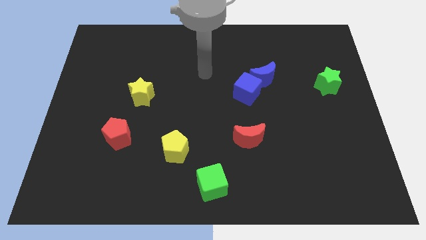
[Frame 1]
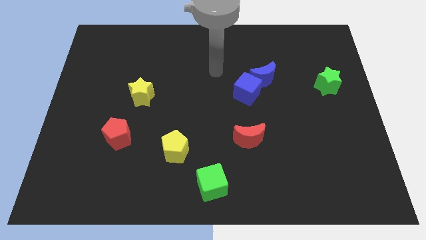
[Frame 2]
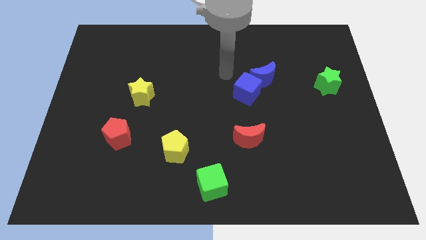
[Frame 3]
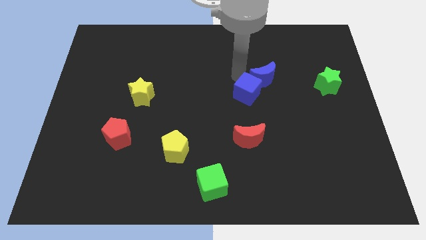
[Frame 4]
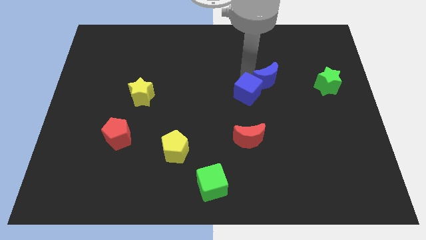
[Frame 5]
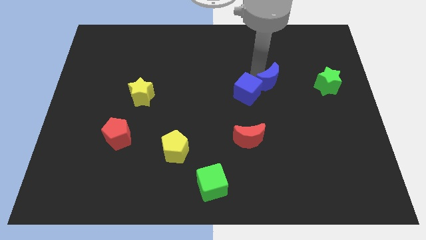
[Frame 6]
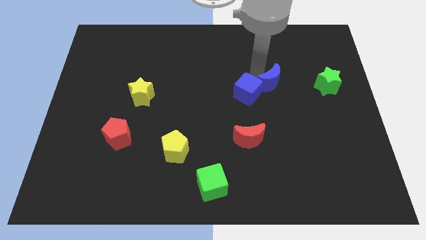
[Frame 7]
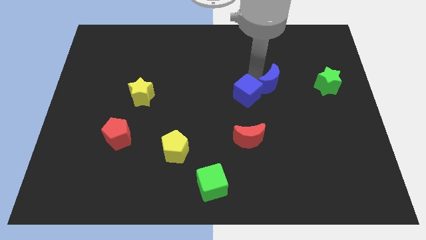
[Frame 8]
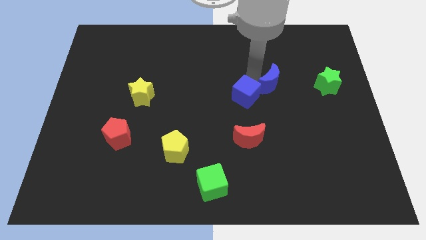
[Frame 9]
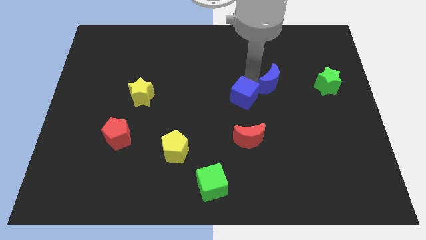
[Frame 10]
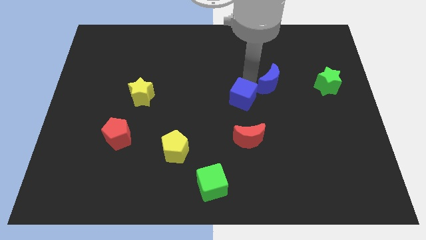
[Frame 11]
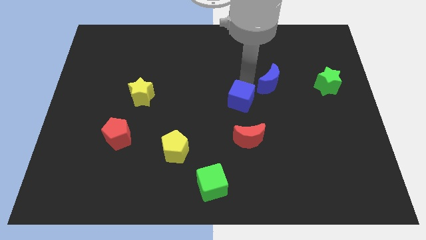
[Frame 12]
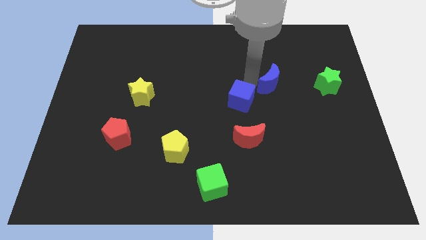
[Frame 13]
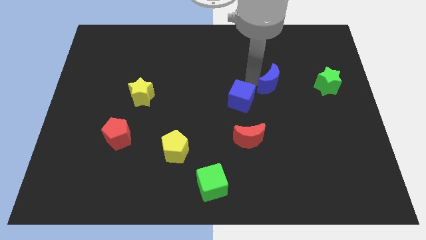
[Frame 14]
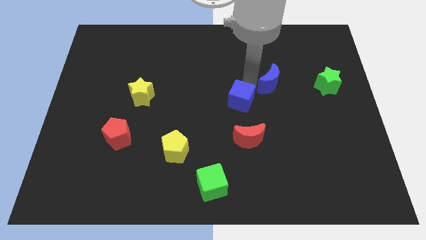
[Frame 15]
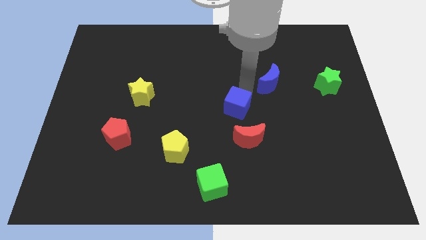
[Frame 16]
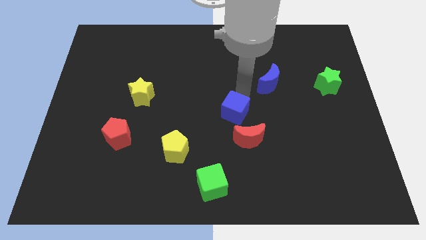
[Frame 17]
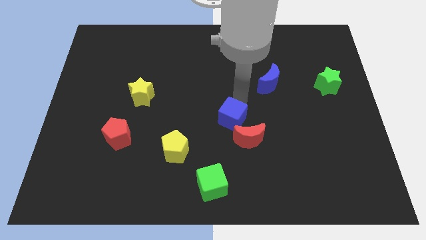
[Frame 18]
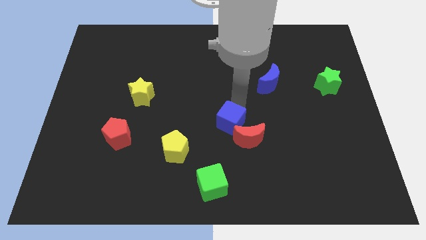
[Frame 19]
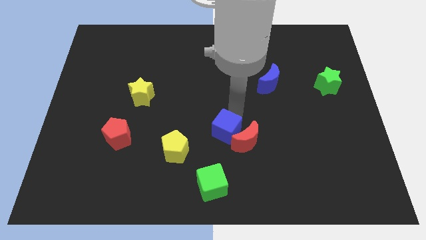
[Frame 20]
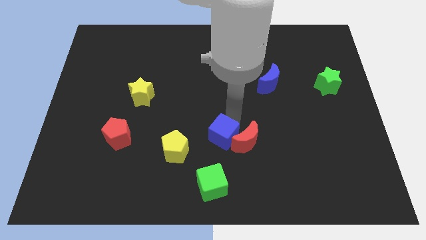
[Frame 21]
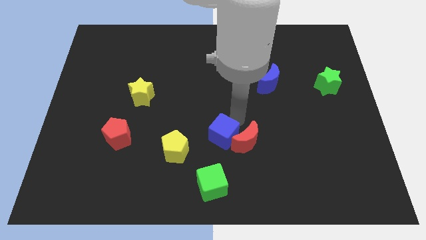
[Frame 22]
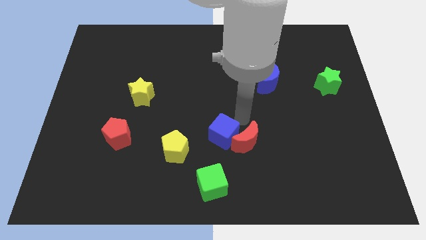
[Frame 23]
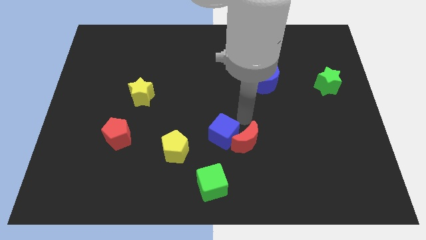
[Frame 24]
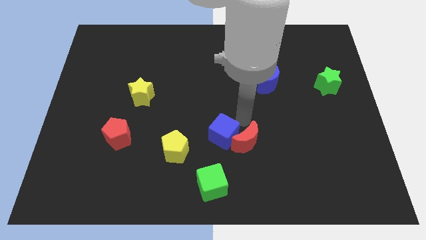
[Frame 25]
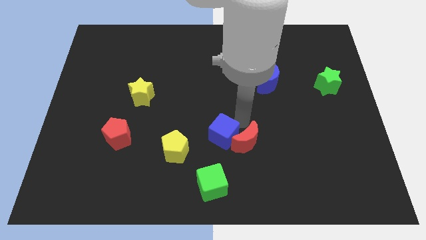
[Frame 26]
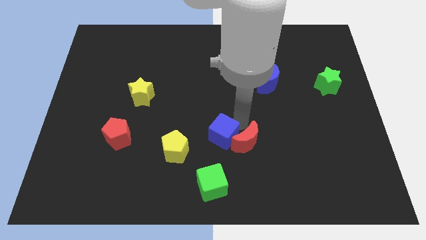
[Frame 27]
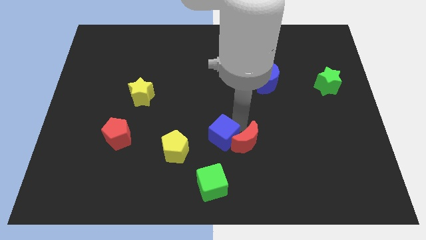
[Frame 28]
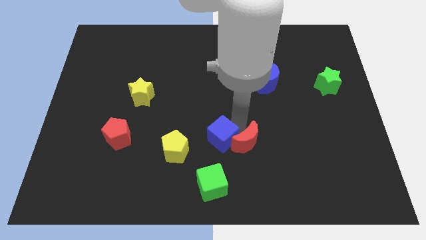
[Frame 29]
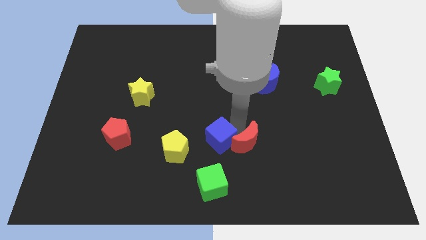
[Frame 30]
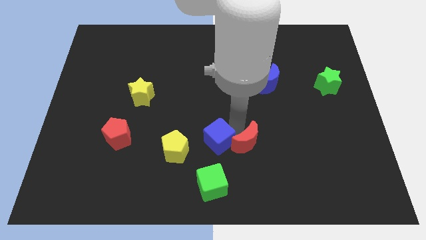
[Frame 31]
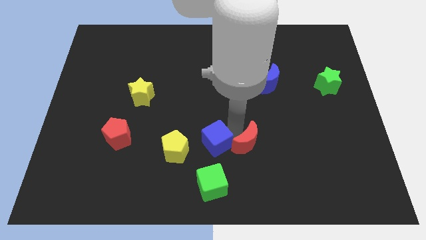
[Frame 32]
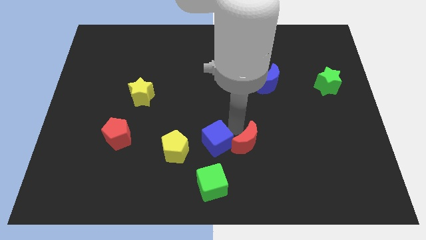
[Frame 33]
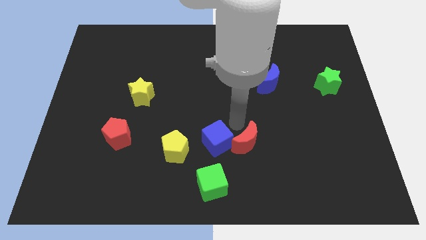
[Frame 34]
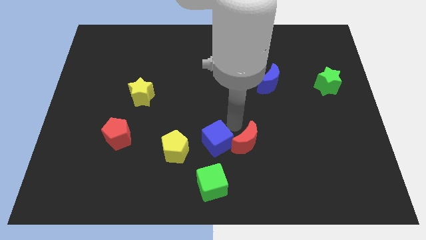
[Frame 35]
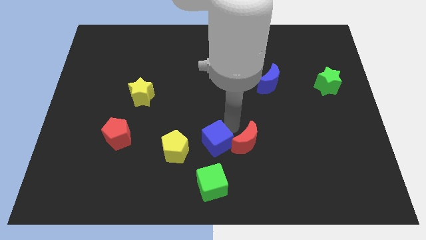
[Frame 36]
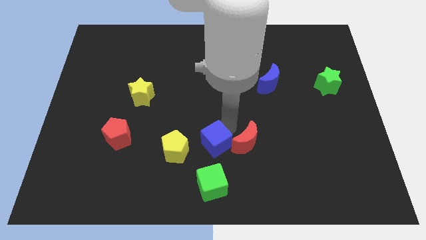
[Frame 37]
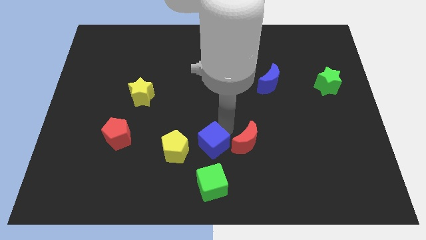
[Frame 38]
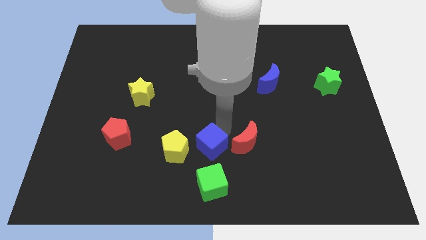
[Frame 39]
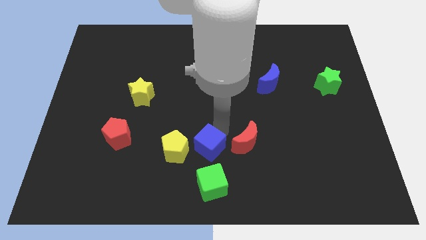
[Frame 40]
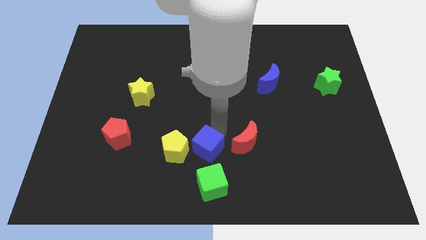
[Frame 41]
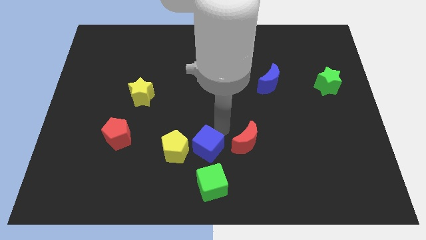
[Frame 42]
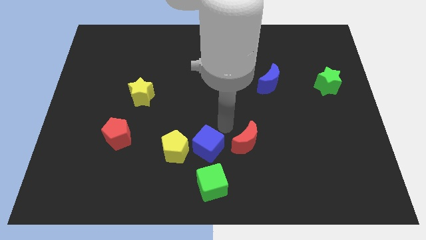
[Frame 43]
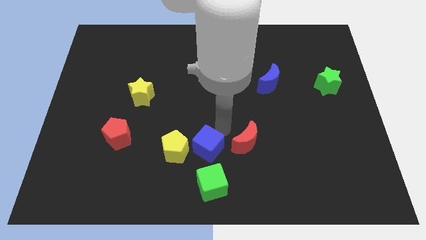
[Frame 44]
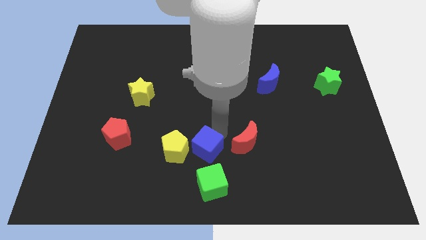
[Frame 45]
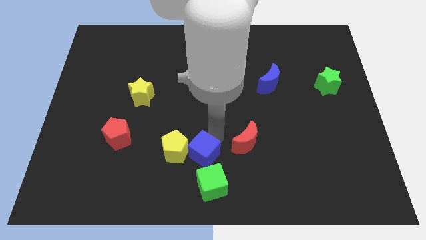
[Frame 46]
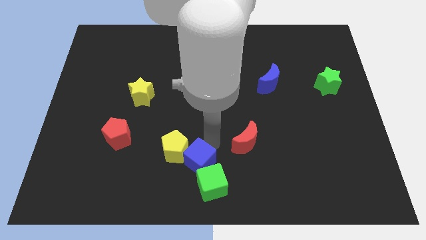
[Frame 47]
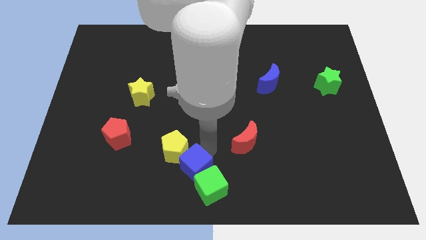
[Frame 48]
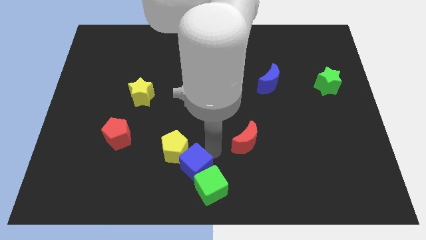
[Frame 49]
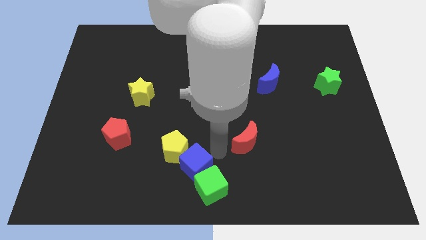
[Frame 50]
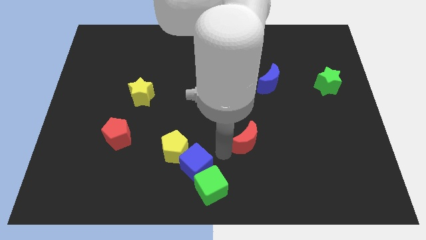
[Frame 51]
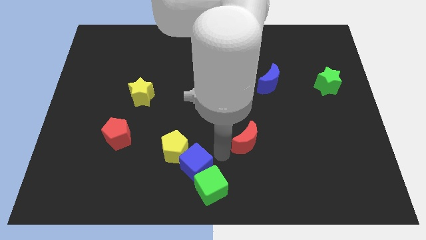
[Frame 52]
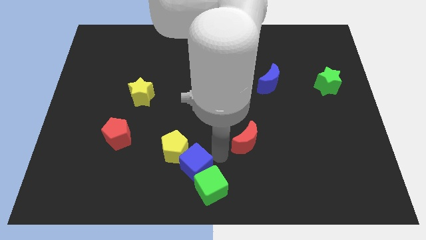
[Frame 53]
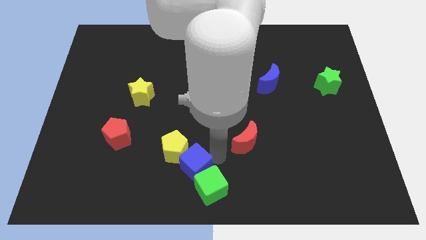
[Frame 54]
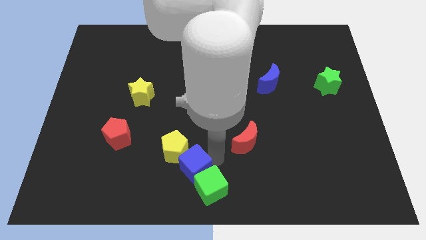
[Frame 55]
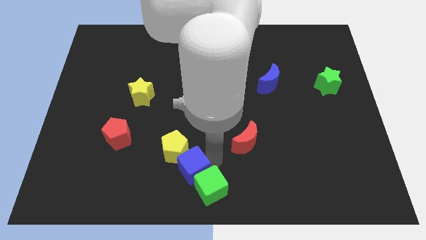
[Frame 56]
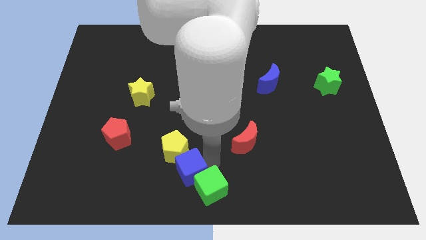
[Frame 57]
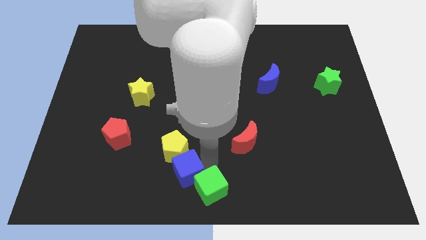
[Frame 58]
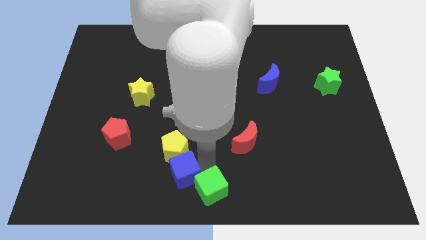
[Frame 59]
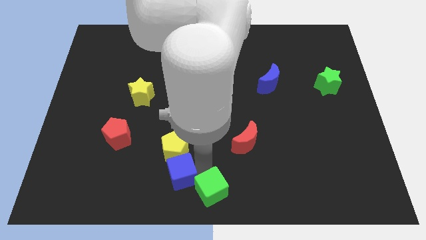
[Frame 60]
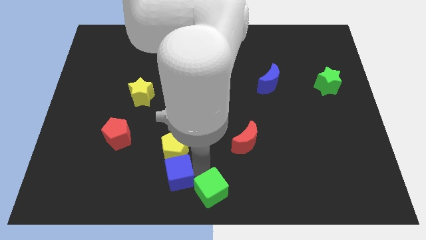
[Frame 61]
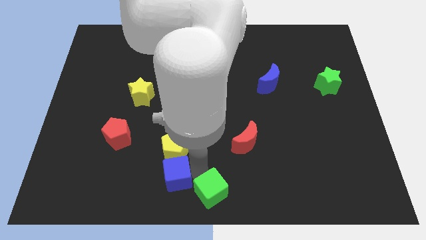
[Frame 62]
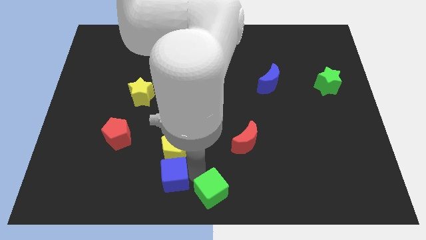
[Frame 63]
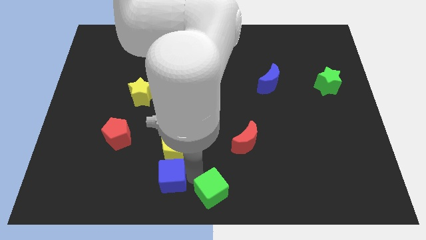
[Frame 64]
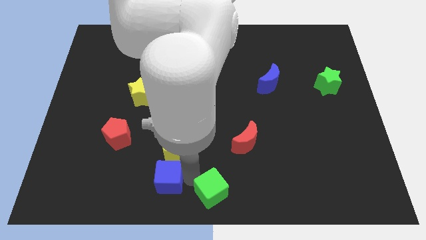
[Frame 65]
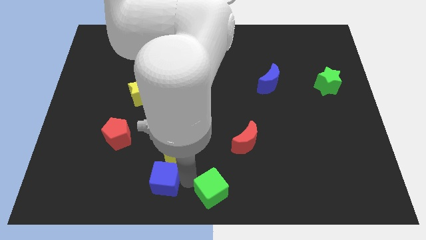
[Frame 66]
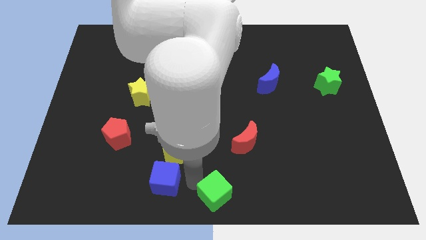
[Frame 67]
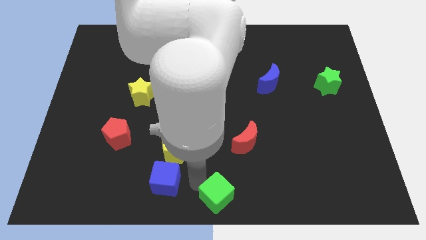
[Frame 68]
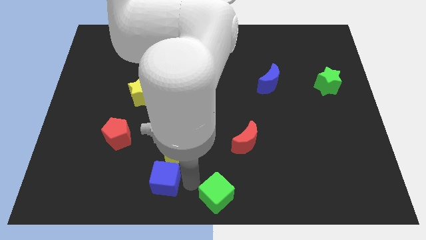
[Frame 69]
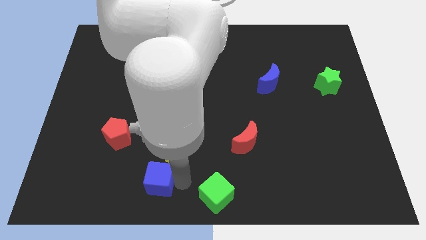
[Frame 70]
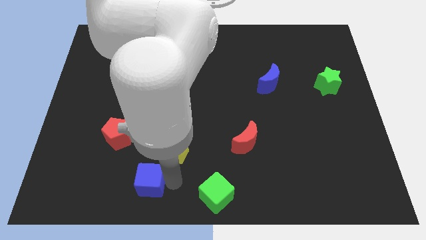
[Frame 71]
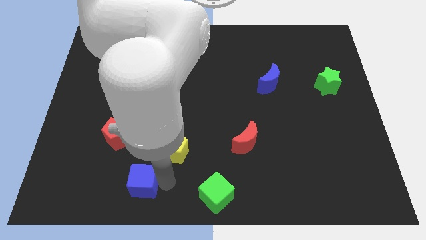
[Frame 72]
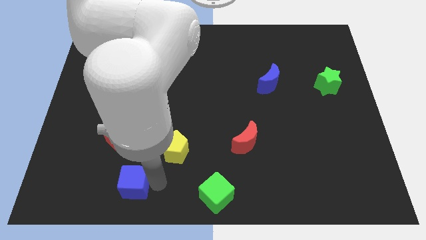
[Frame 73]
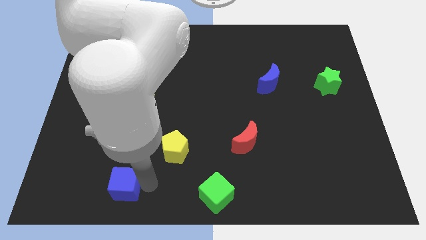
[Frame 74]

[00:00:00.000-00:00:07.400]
push the blue cube to the bottom side of the red pentagon
